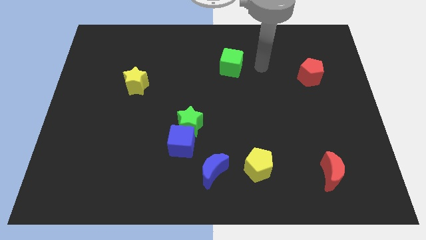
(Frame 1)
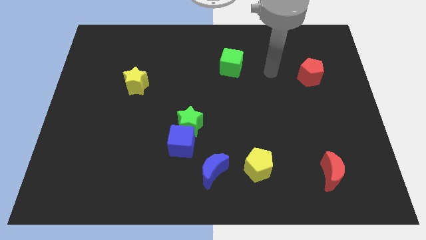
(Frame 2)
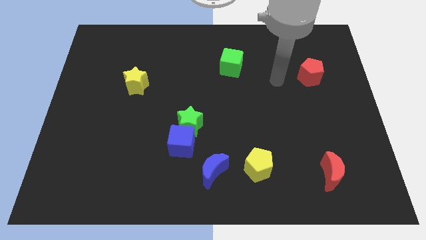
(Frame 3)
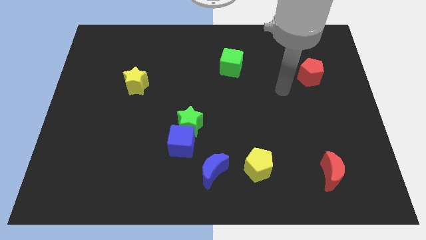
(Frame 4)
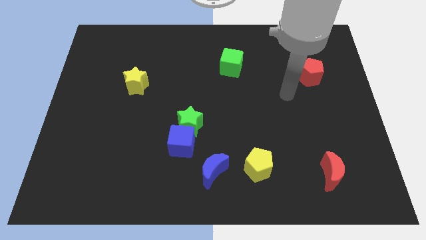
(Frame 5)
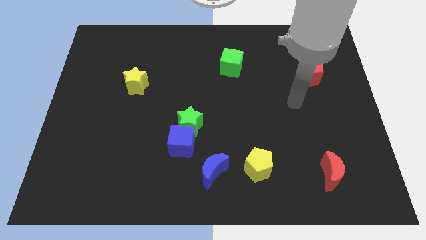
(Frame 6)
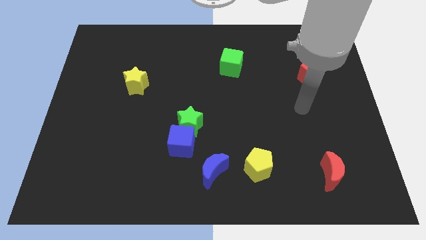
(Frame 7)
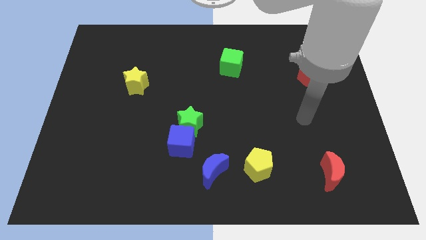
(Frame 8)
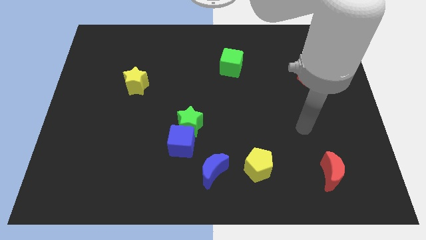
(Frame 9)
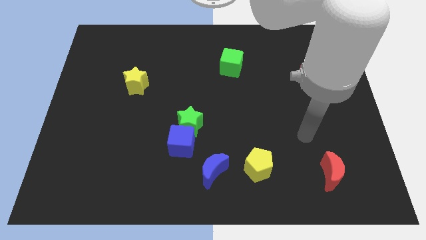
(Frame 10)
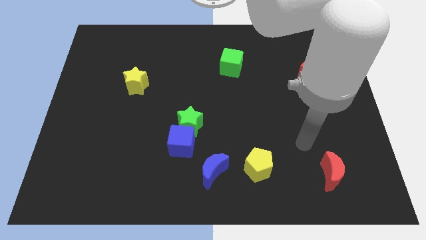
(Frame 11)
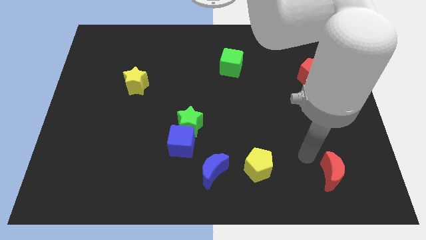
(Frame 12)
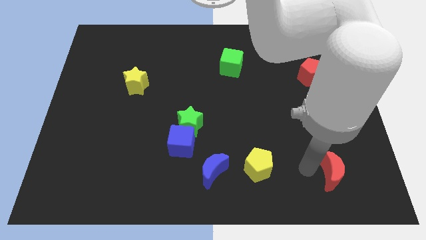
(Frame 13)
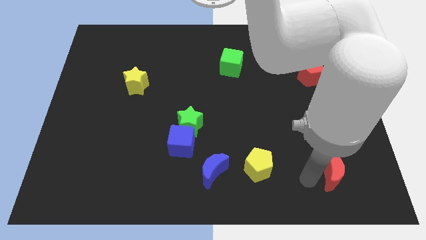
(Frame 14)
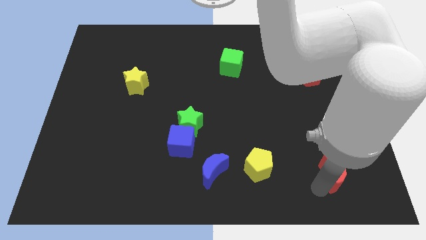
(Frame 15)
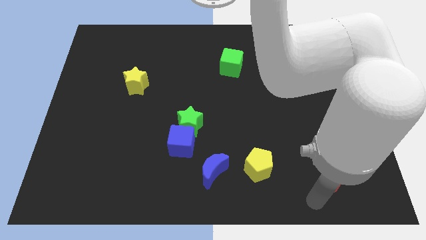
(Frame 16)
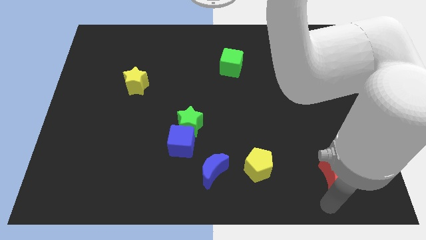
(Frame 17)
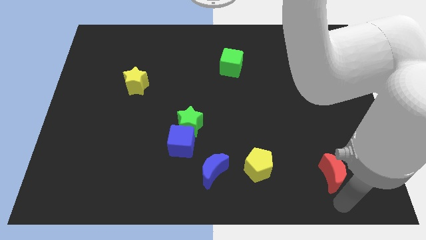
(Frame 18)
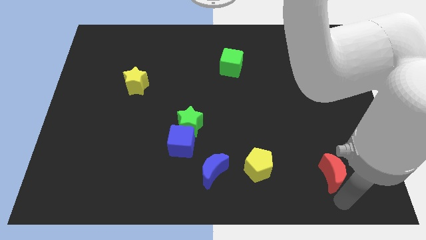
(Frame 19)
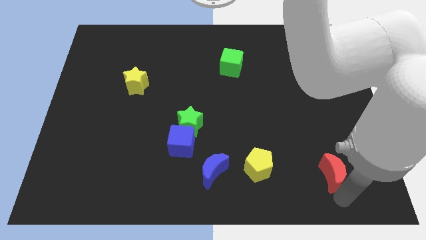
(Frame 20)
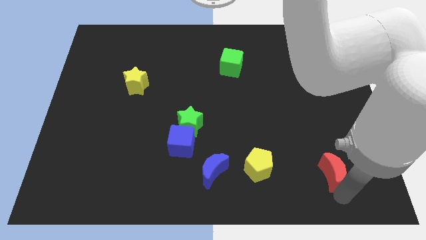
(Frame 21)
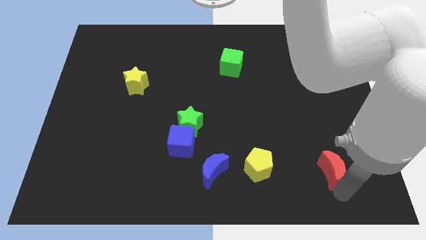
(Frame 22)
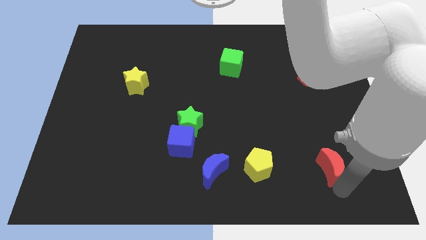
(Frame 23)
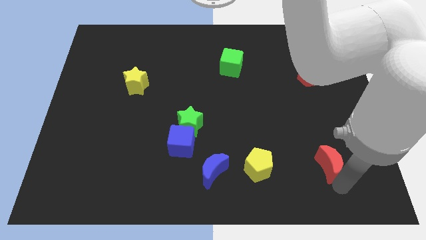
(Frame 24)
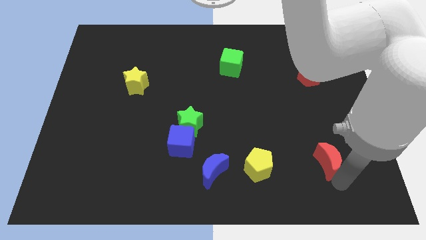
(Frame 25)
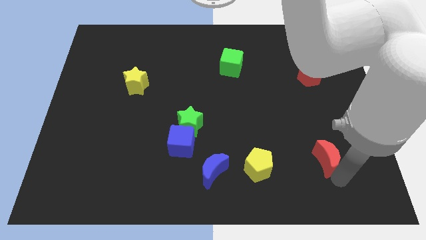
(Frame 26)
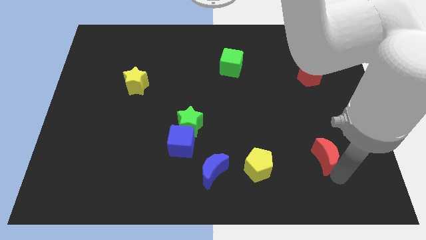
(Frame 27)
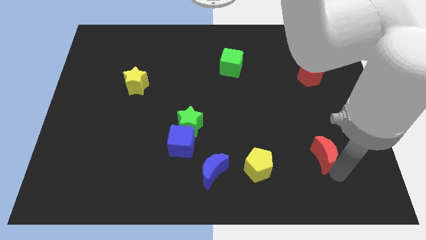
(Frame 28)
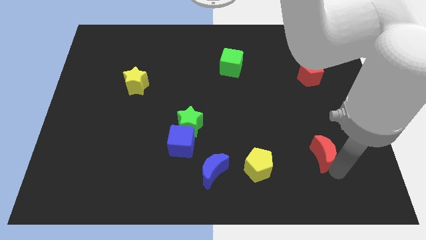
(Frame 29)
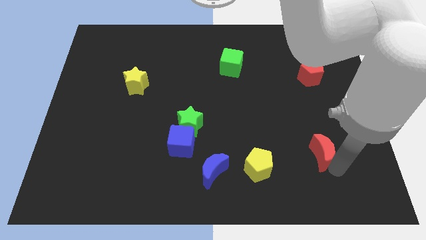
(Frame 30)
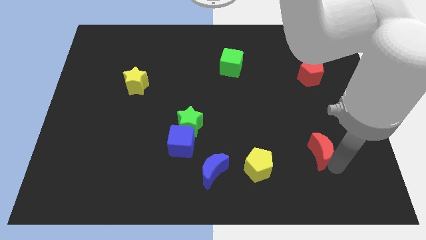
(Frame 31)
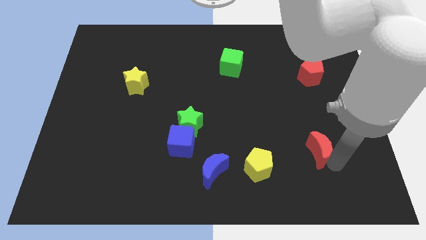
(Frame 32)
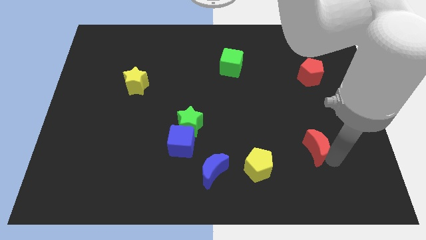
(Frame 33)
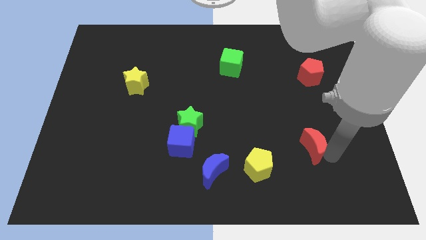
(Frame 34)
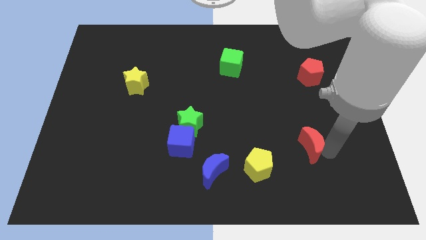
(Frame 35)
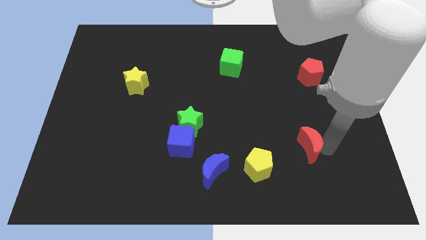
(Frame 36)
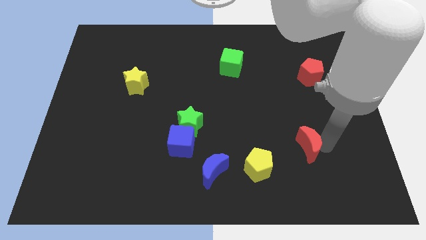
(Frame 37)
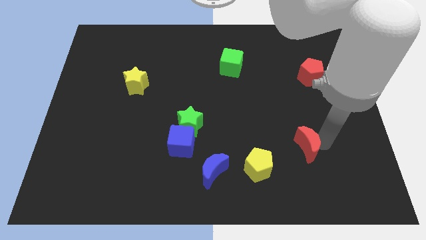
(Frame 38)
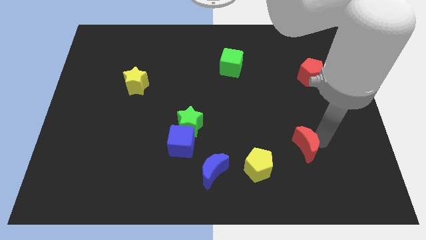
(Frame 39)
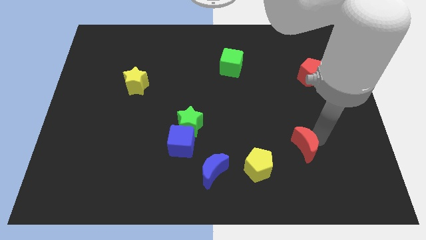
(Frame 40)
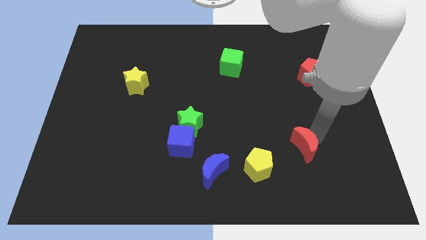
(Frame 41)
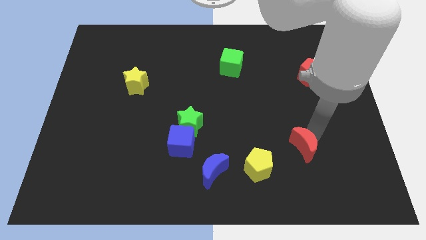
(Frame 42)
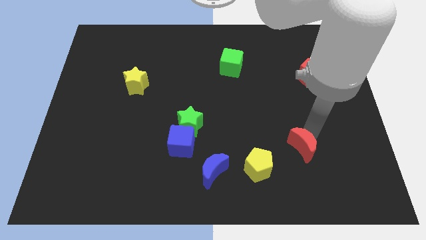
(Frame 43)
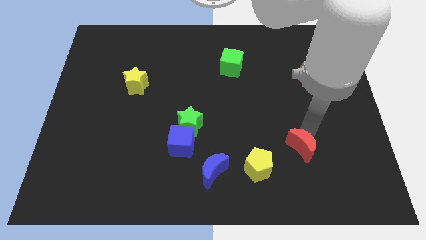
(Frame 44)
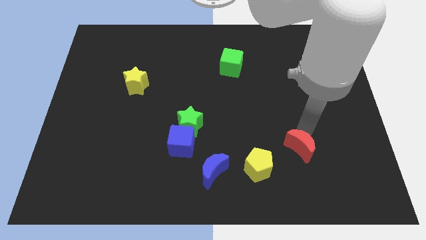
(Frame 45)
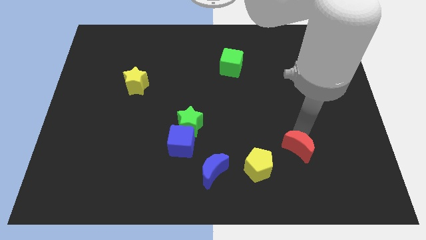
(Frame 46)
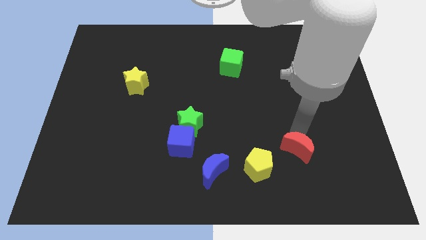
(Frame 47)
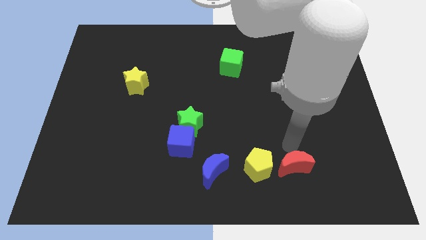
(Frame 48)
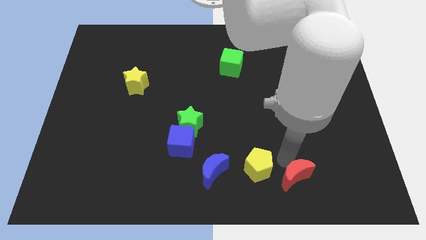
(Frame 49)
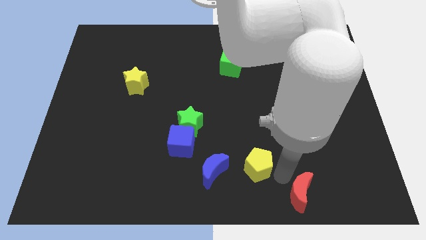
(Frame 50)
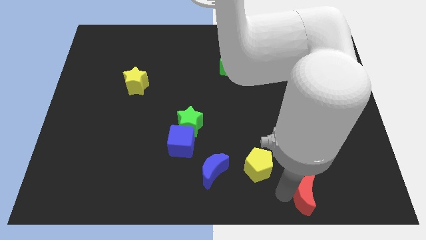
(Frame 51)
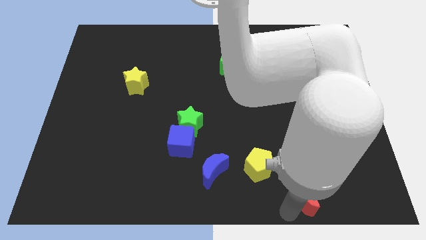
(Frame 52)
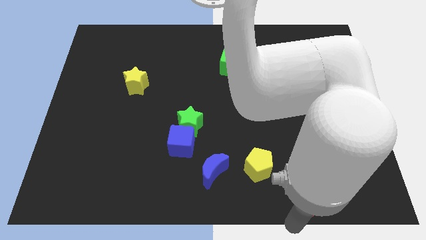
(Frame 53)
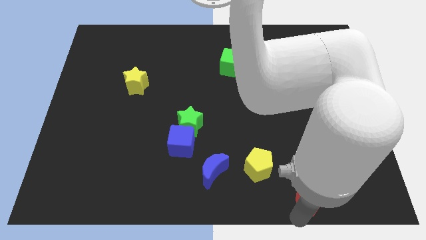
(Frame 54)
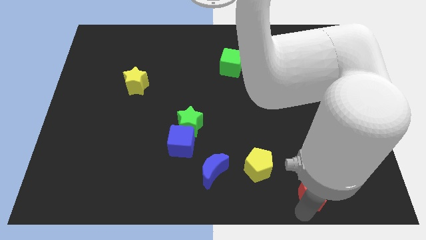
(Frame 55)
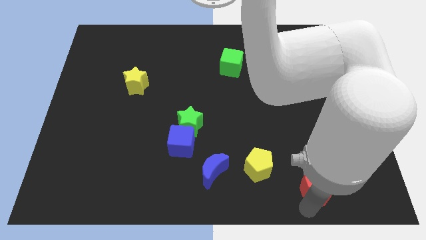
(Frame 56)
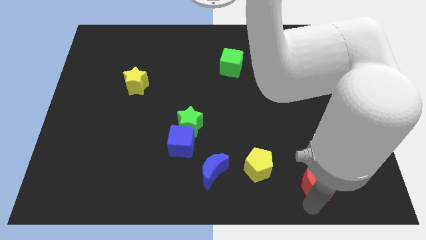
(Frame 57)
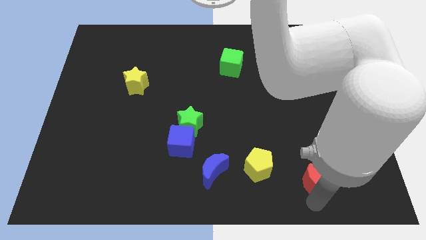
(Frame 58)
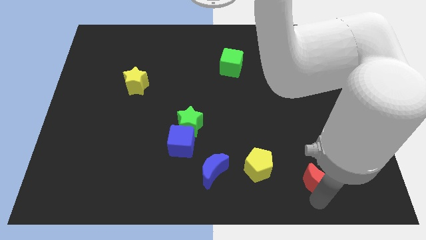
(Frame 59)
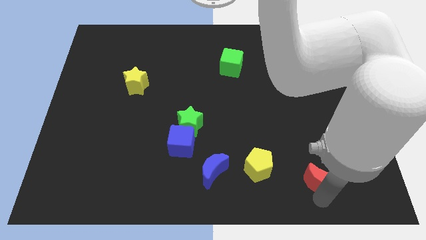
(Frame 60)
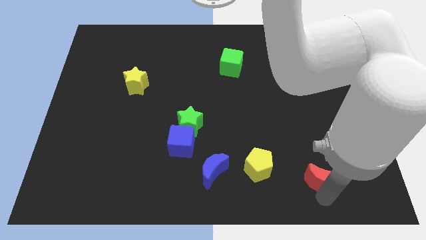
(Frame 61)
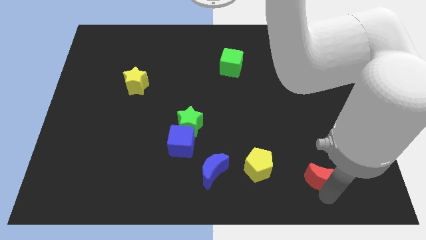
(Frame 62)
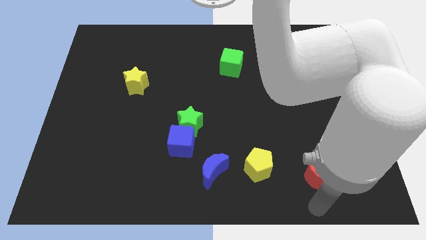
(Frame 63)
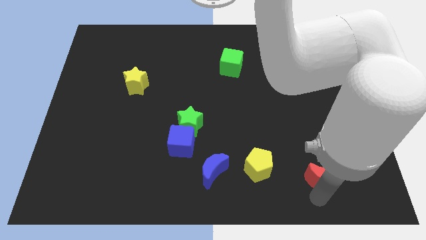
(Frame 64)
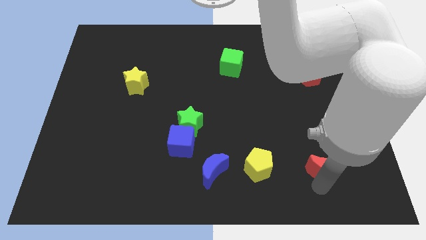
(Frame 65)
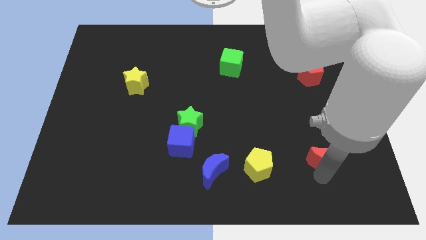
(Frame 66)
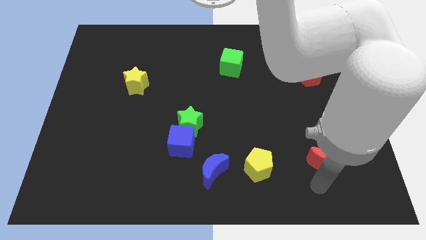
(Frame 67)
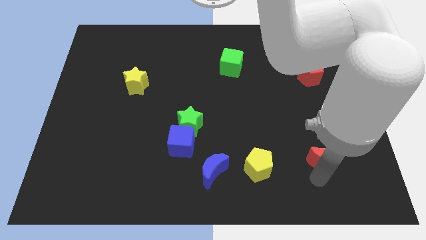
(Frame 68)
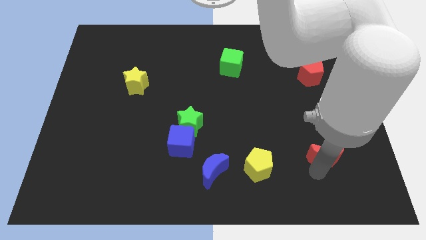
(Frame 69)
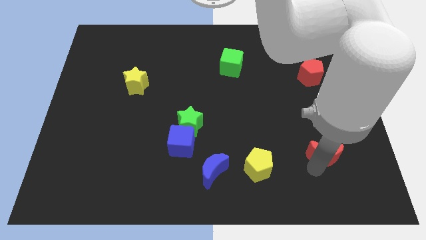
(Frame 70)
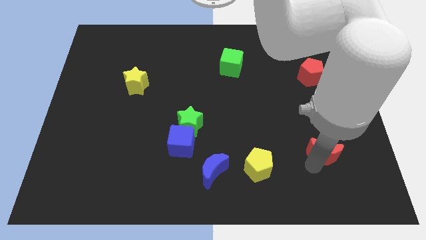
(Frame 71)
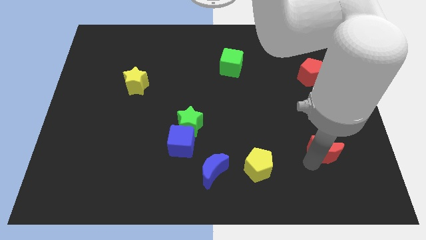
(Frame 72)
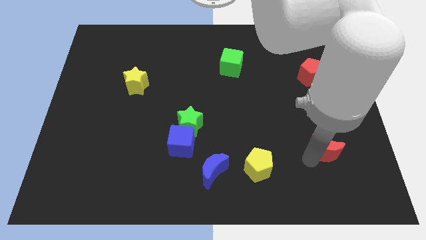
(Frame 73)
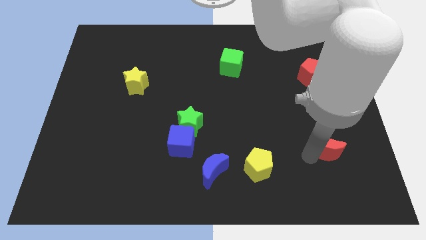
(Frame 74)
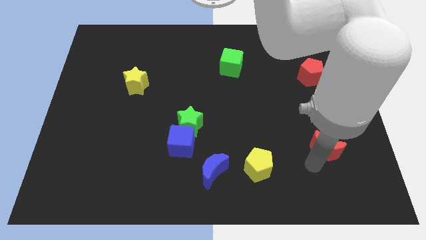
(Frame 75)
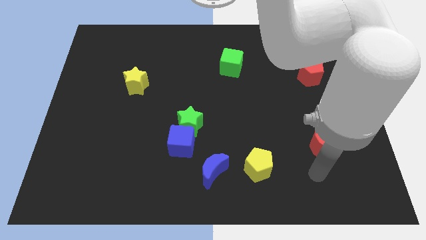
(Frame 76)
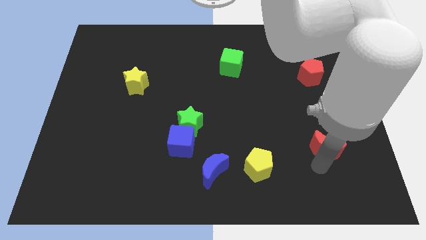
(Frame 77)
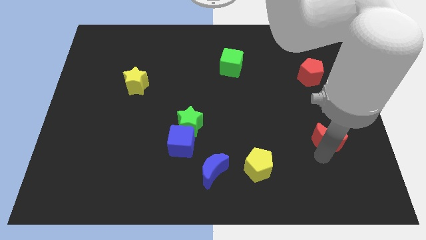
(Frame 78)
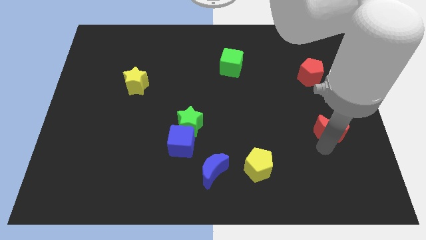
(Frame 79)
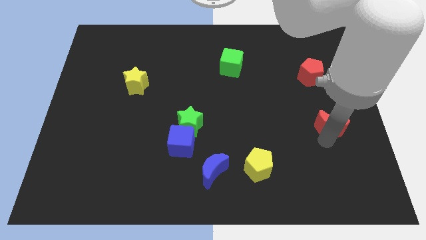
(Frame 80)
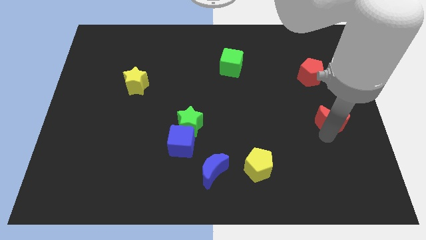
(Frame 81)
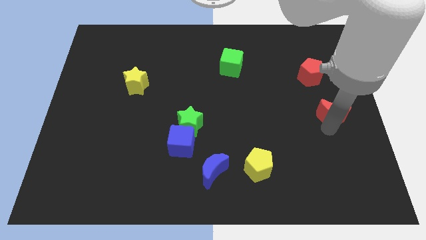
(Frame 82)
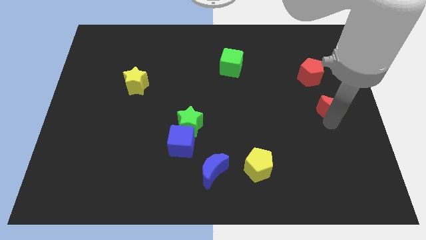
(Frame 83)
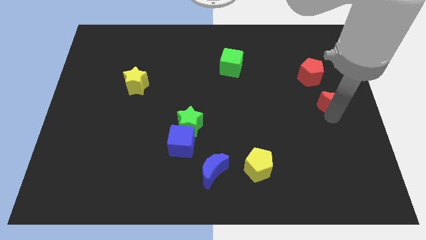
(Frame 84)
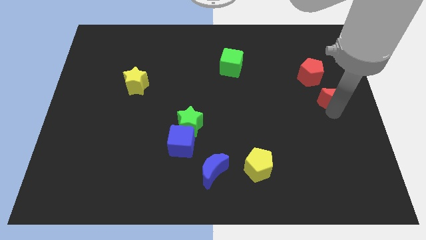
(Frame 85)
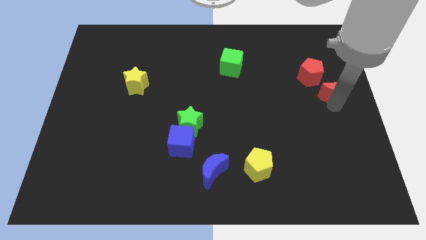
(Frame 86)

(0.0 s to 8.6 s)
slide the red moon up
